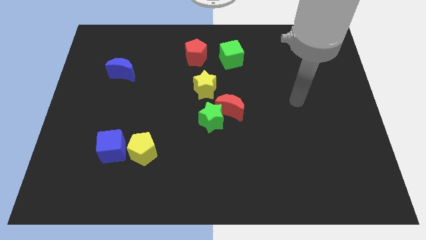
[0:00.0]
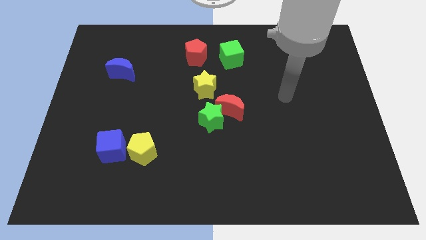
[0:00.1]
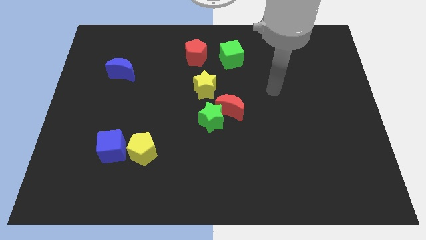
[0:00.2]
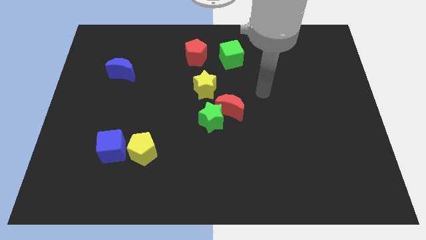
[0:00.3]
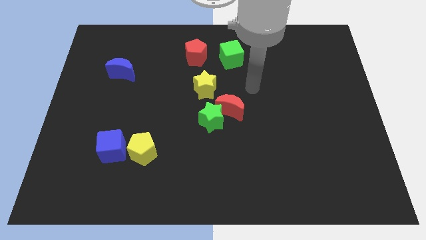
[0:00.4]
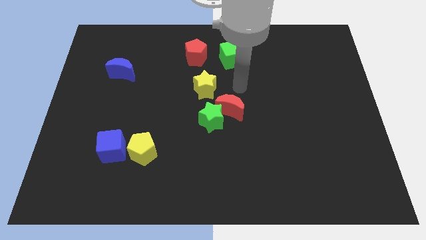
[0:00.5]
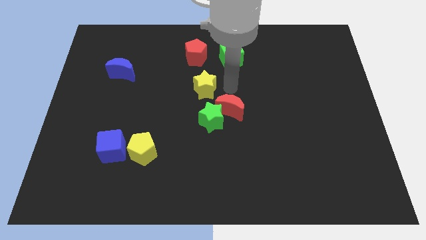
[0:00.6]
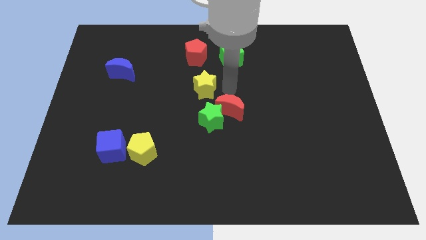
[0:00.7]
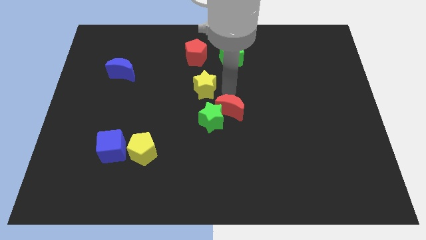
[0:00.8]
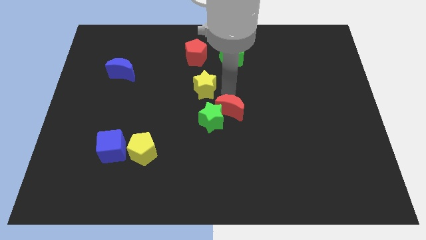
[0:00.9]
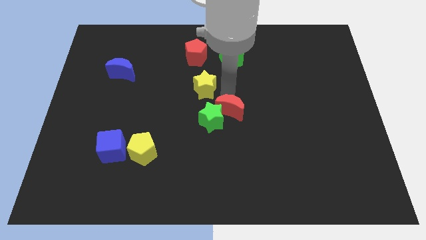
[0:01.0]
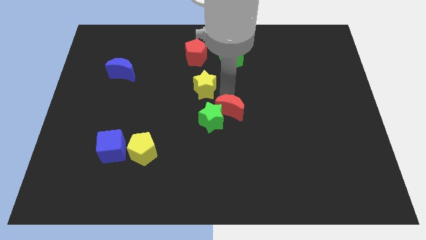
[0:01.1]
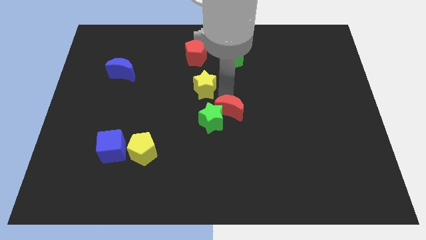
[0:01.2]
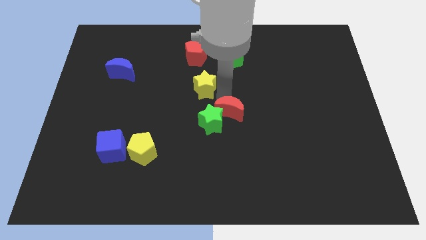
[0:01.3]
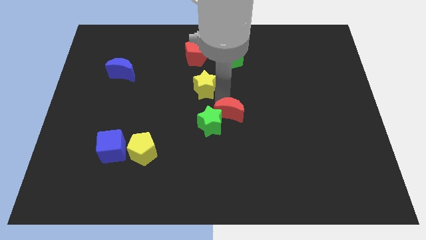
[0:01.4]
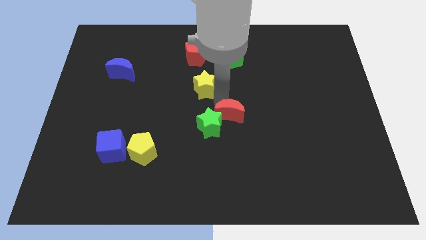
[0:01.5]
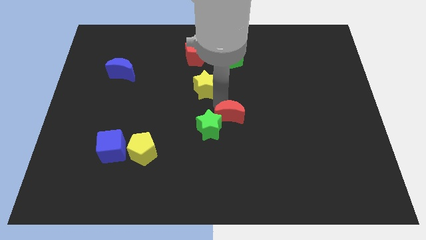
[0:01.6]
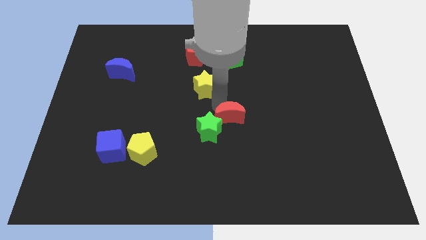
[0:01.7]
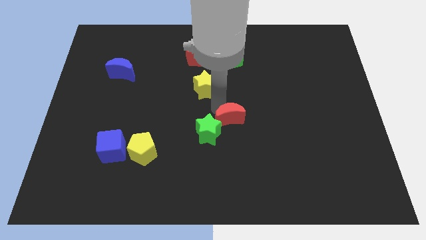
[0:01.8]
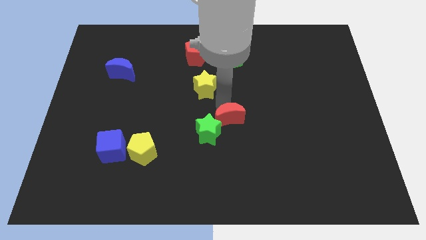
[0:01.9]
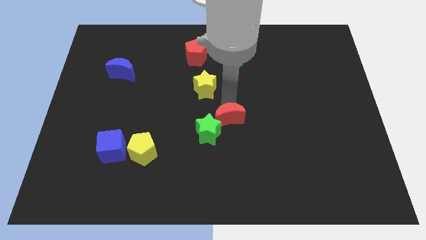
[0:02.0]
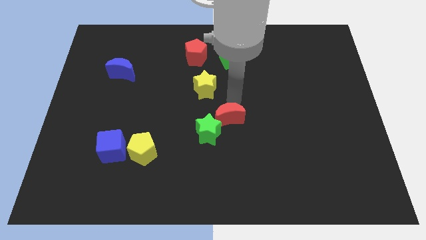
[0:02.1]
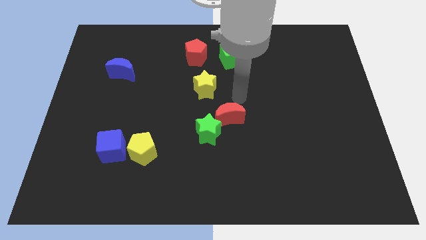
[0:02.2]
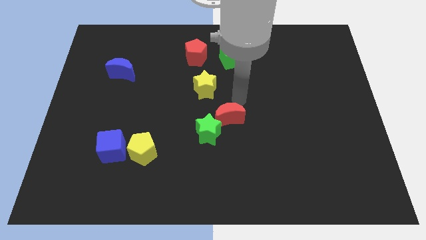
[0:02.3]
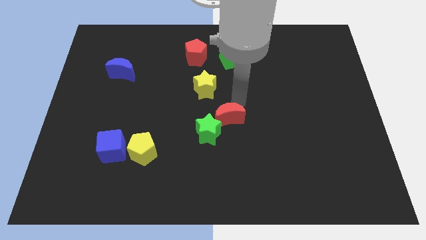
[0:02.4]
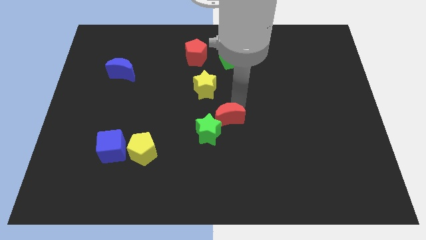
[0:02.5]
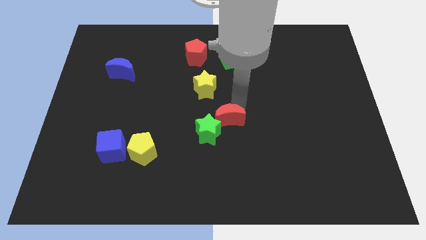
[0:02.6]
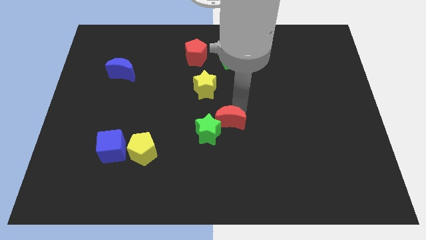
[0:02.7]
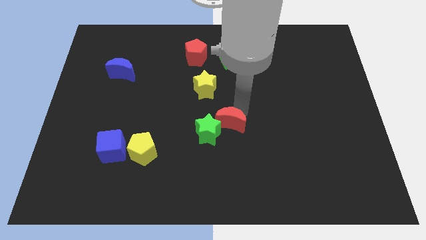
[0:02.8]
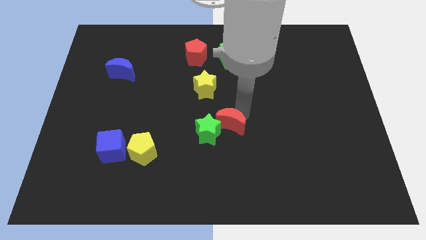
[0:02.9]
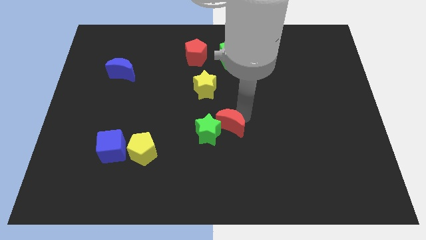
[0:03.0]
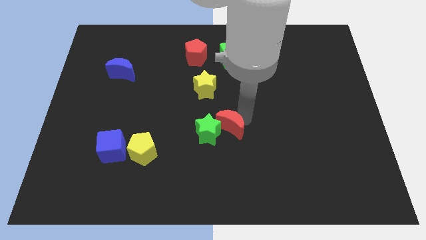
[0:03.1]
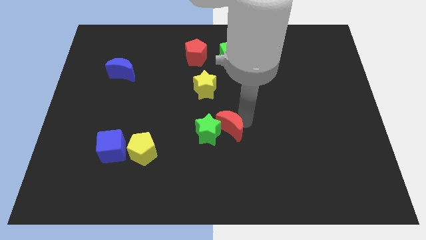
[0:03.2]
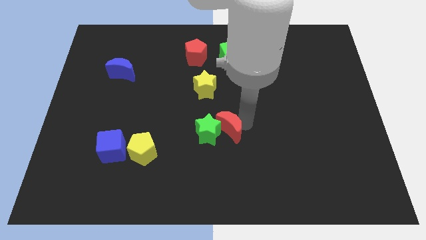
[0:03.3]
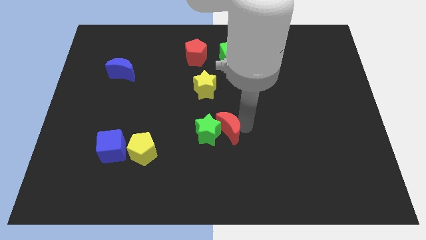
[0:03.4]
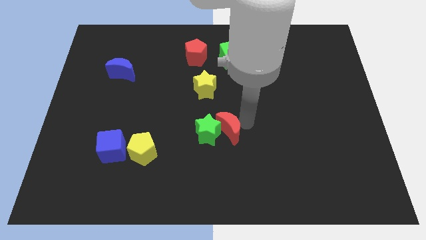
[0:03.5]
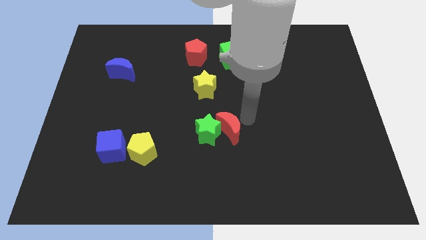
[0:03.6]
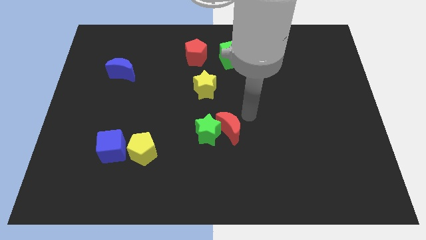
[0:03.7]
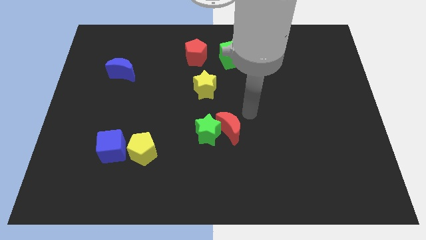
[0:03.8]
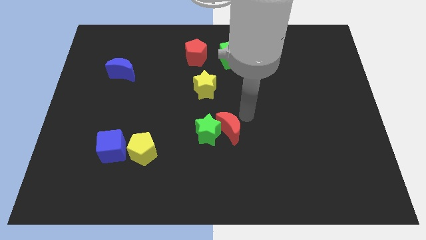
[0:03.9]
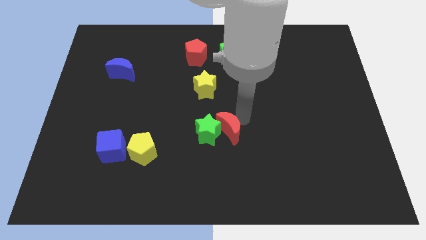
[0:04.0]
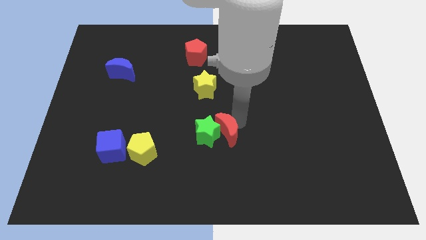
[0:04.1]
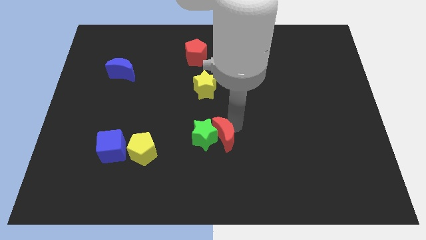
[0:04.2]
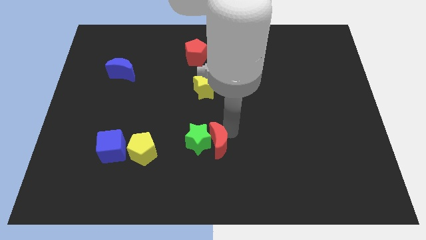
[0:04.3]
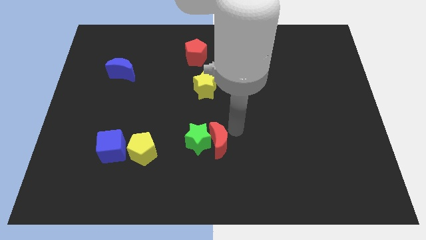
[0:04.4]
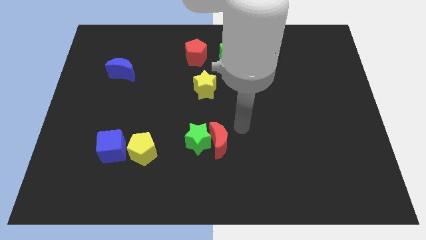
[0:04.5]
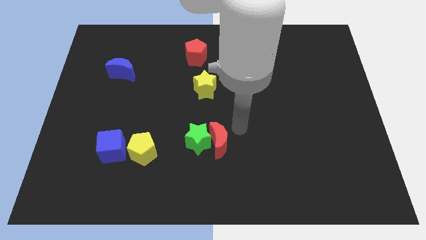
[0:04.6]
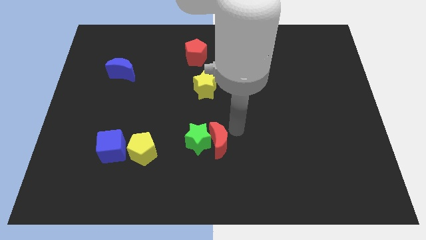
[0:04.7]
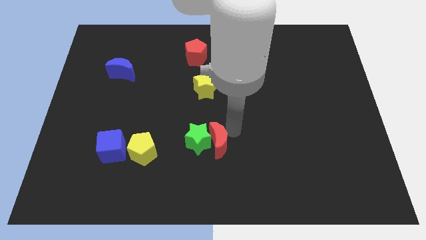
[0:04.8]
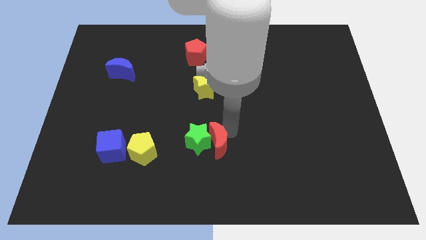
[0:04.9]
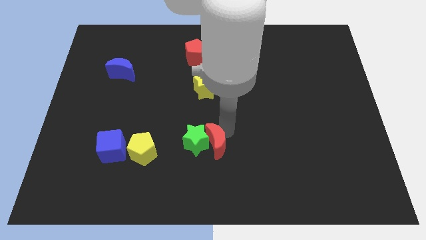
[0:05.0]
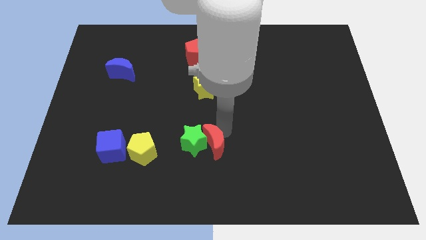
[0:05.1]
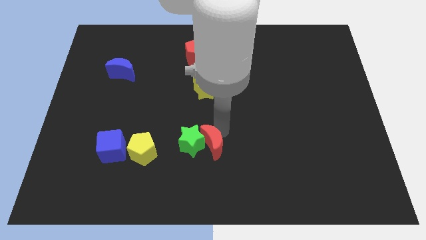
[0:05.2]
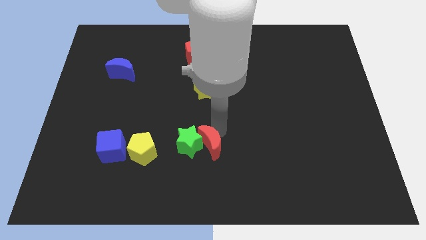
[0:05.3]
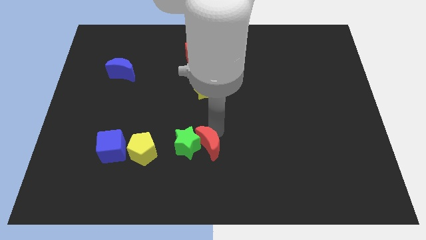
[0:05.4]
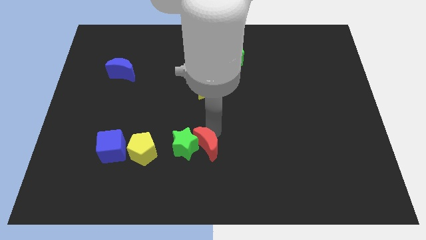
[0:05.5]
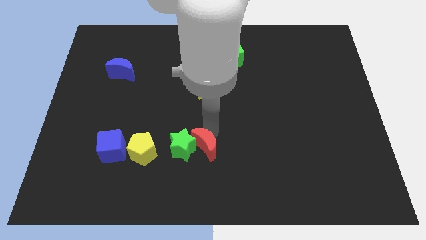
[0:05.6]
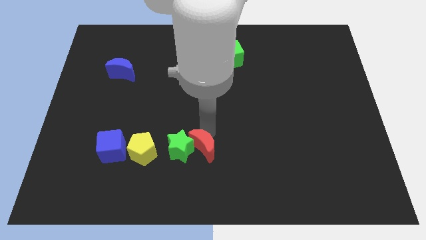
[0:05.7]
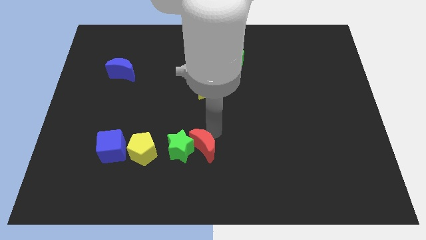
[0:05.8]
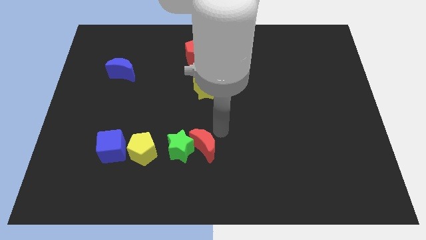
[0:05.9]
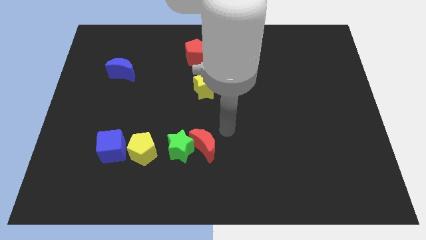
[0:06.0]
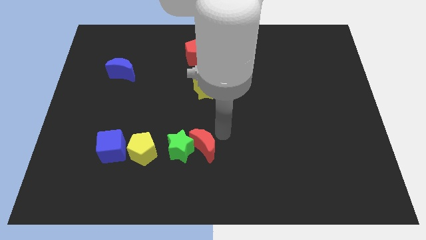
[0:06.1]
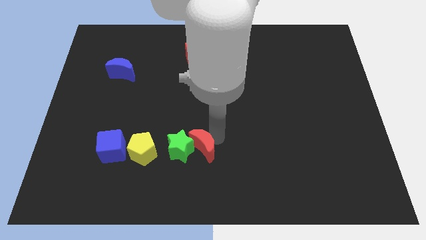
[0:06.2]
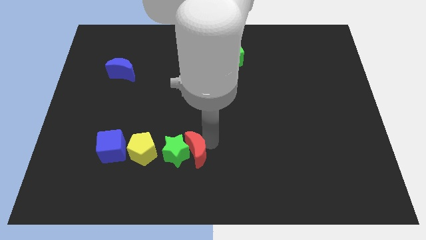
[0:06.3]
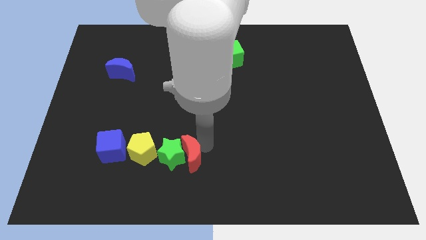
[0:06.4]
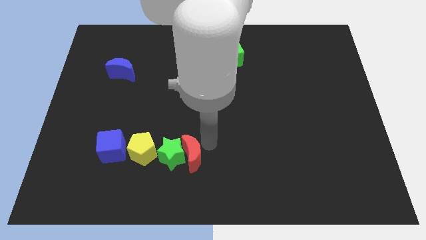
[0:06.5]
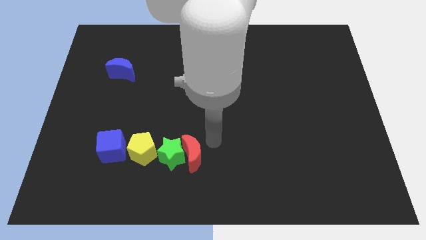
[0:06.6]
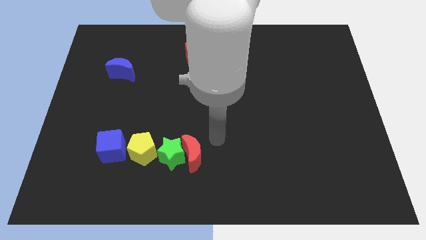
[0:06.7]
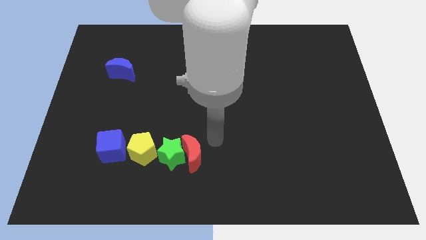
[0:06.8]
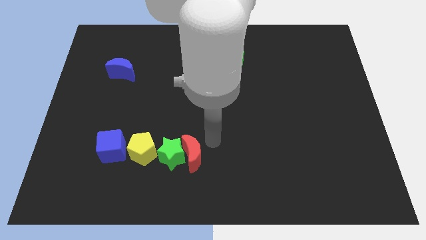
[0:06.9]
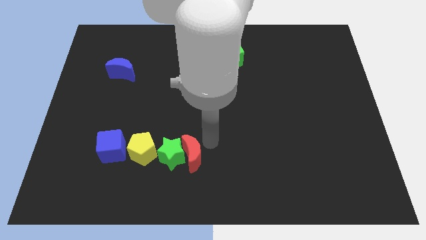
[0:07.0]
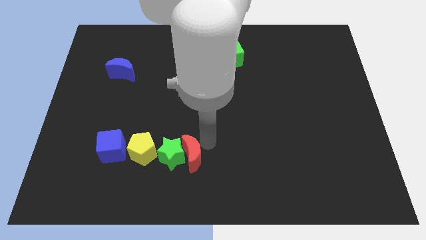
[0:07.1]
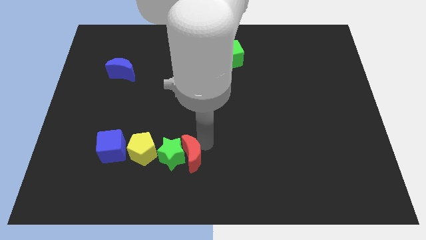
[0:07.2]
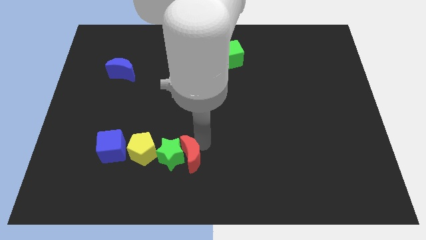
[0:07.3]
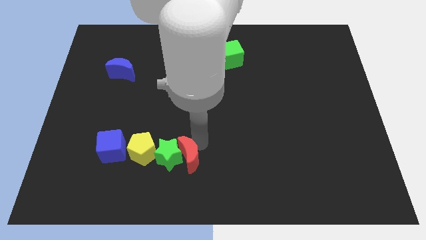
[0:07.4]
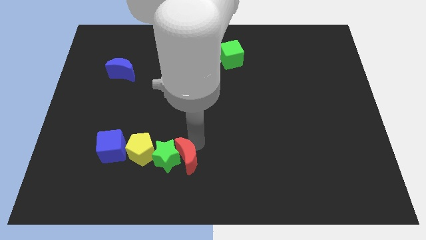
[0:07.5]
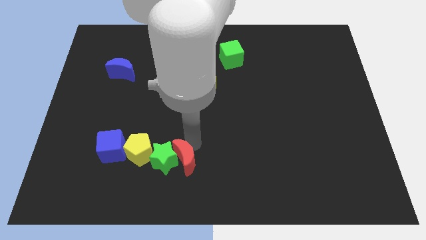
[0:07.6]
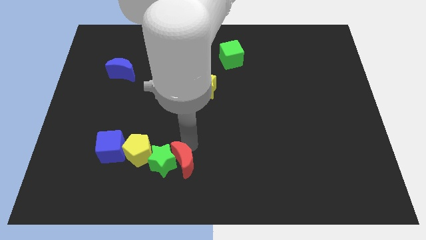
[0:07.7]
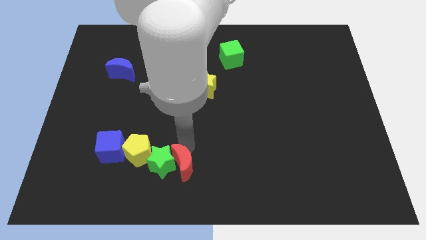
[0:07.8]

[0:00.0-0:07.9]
put the red moon diagonally down and to the right of the yellow pentagon
